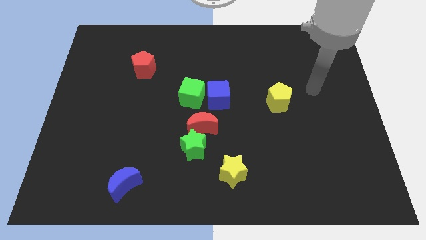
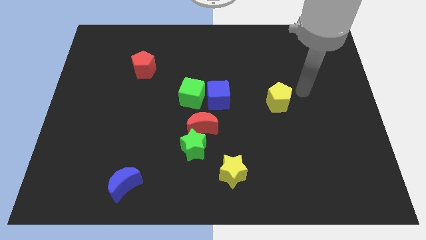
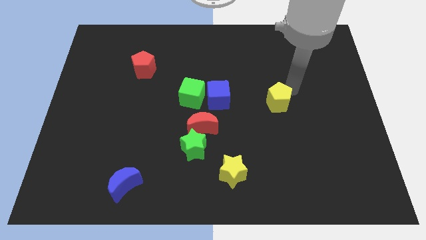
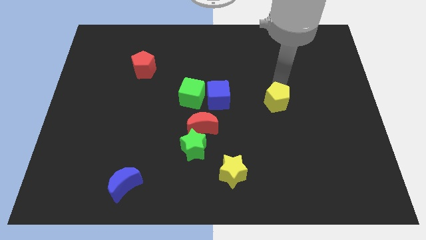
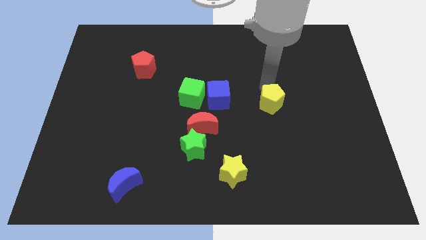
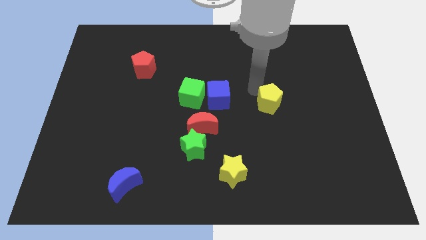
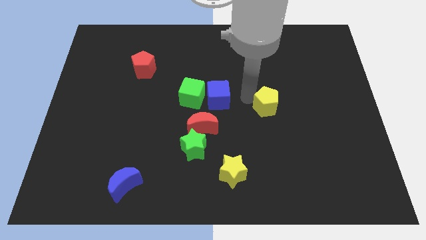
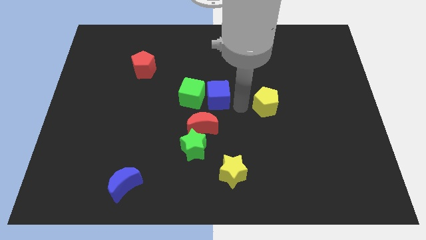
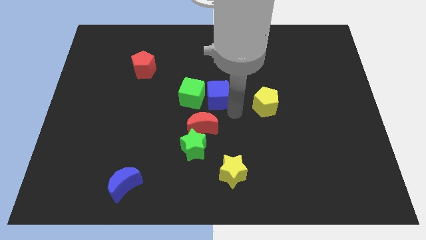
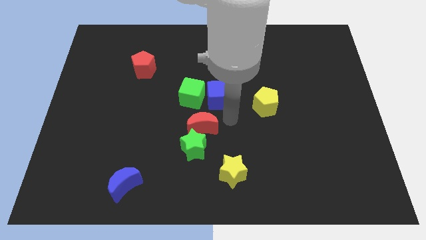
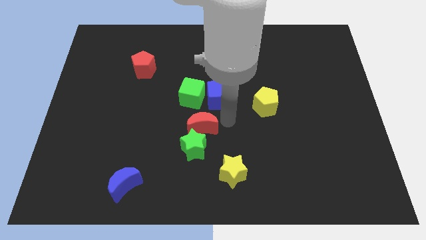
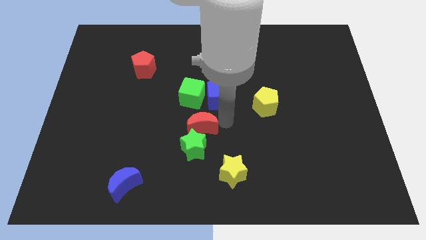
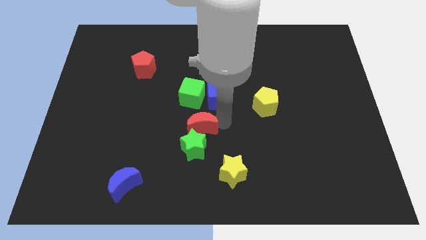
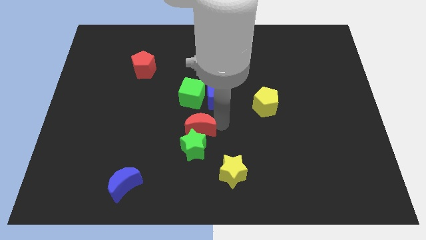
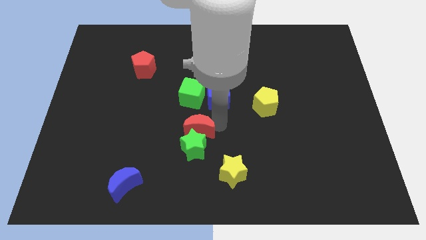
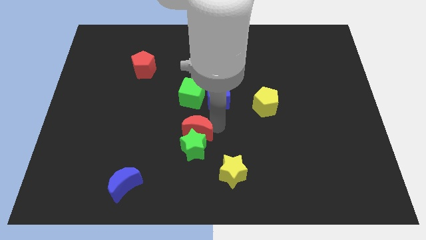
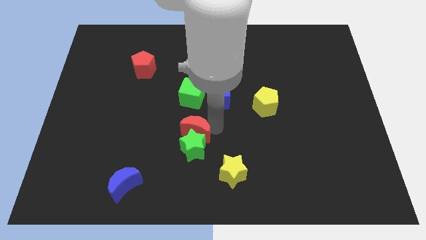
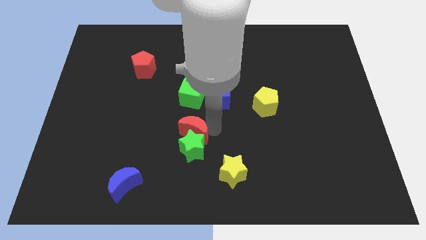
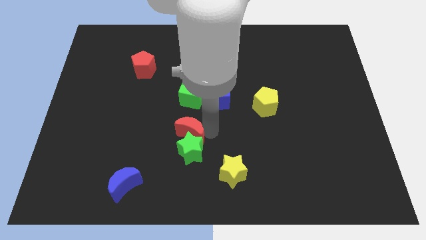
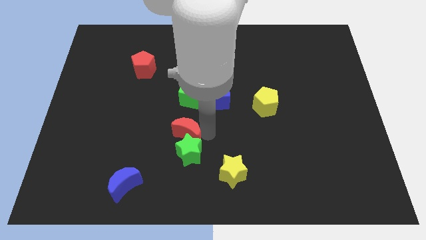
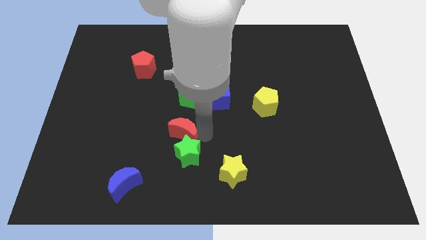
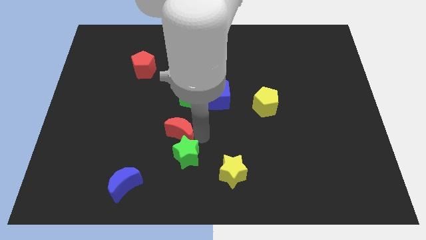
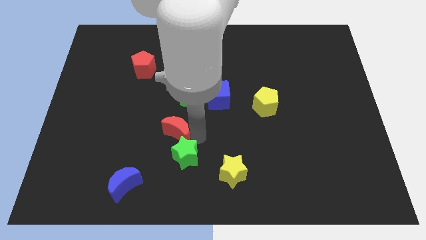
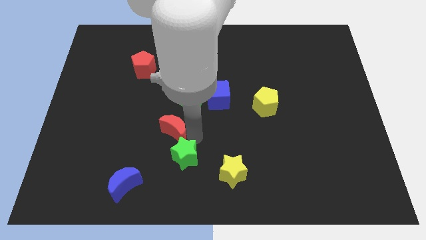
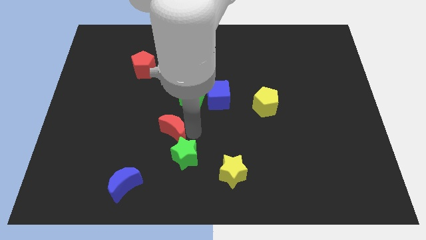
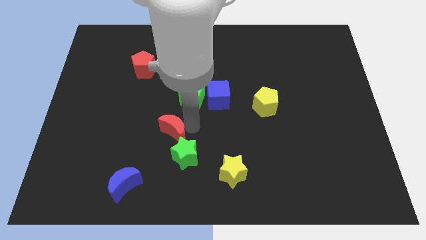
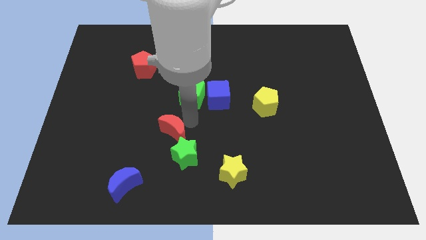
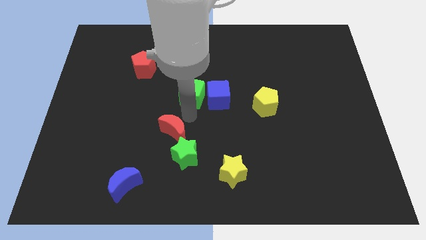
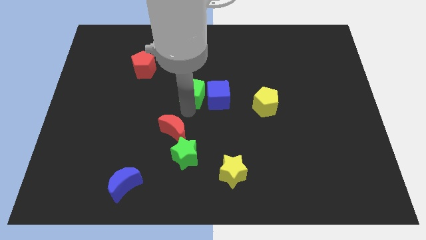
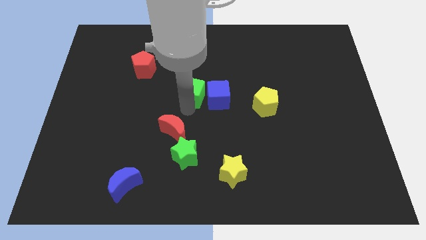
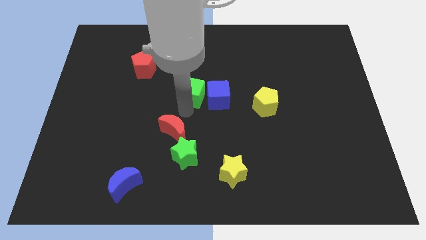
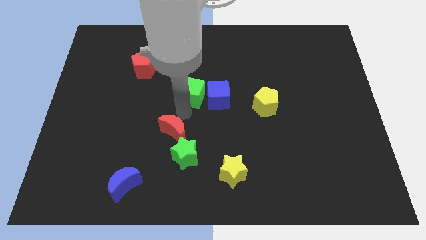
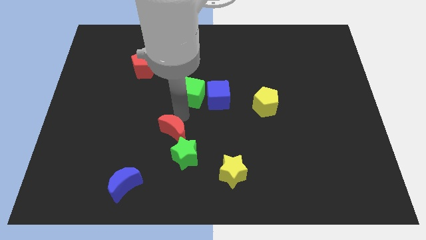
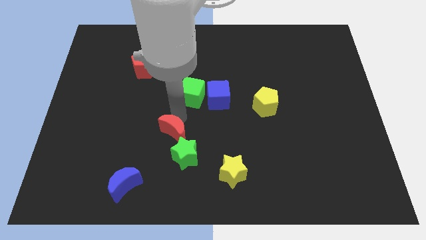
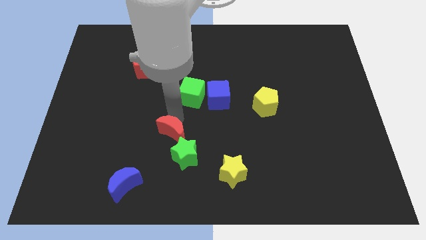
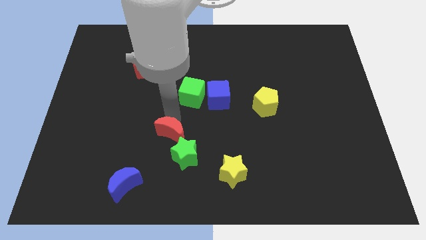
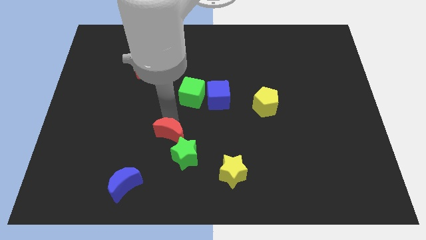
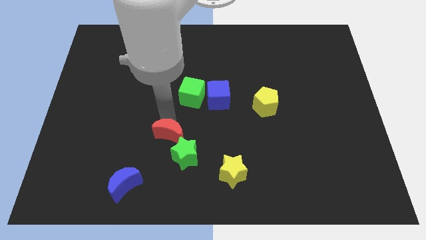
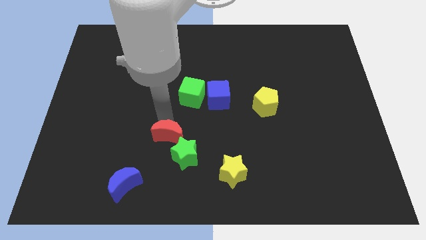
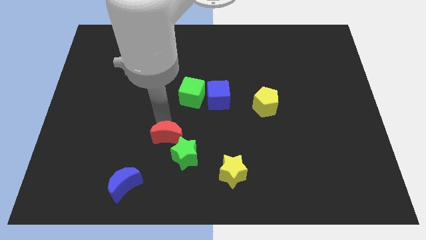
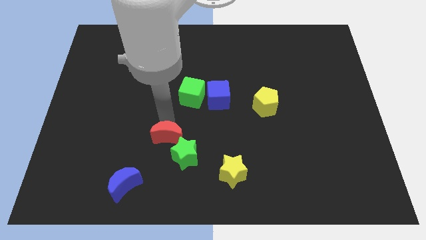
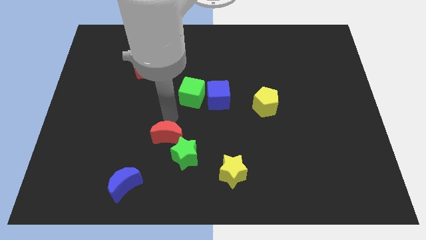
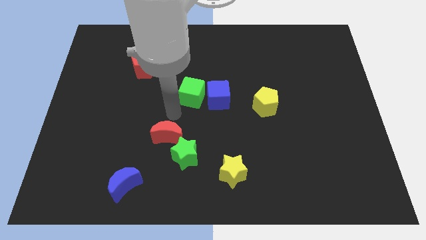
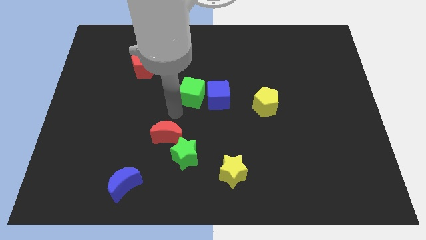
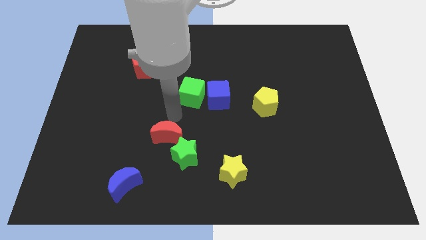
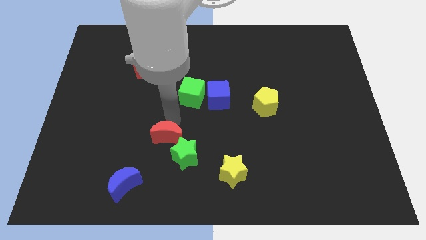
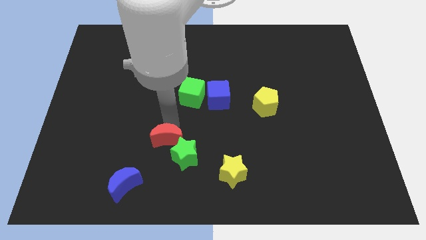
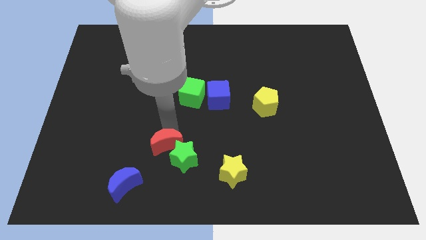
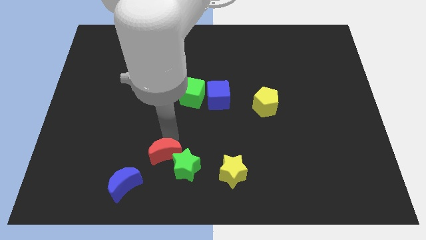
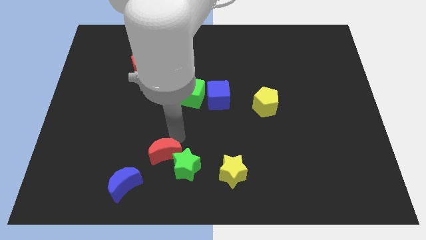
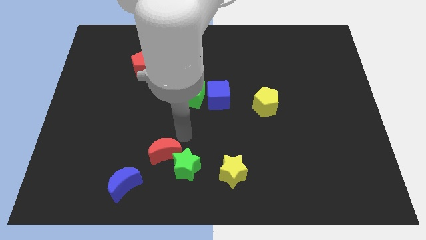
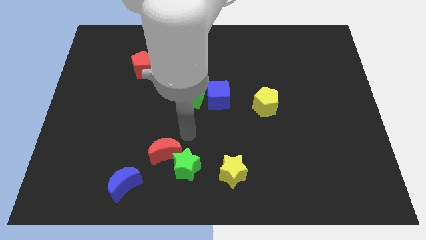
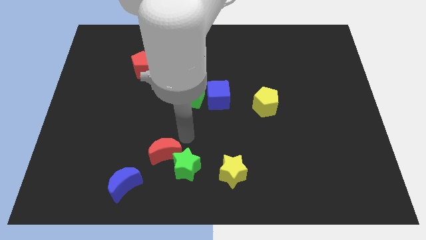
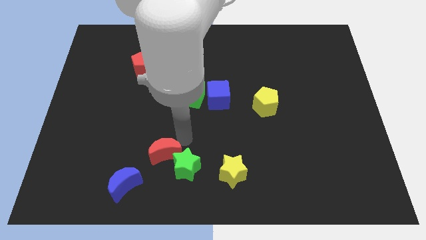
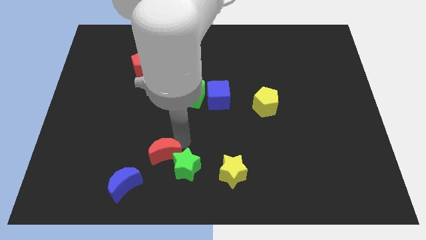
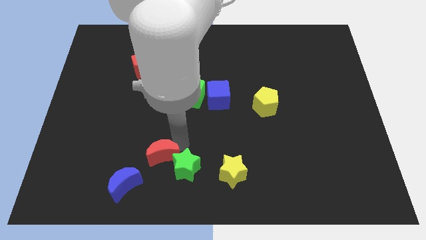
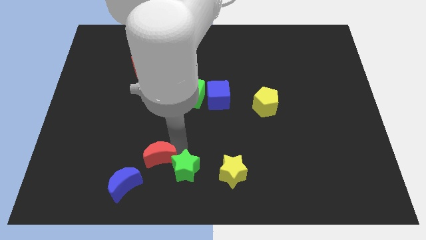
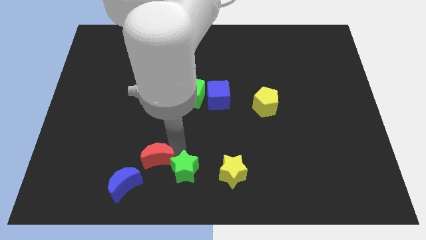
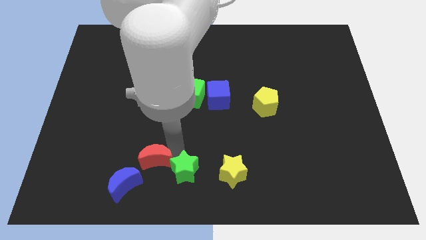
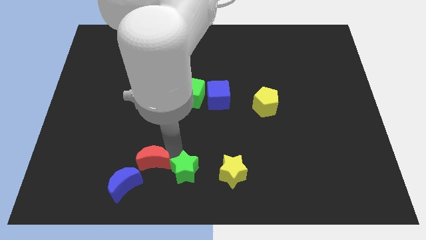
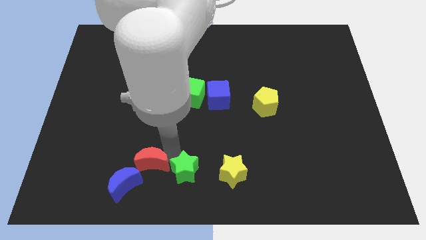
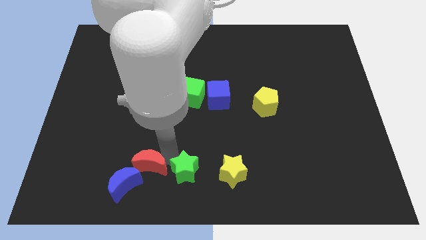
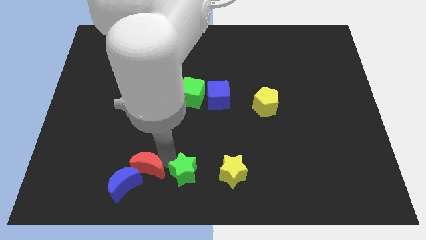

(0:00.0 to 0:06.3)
put the red moon towards the blue moon
